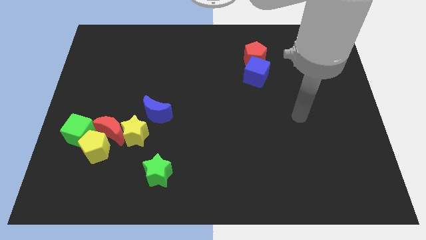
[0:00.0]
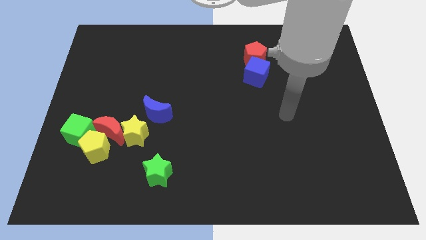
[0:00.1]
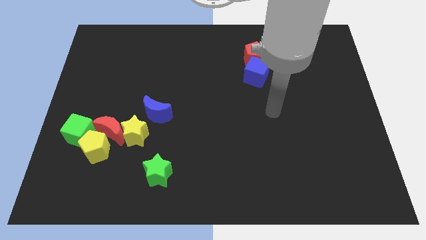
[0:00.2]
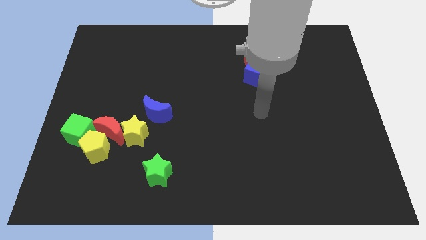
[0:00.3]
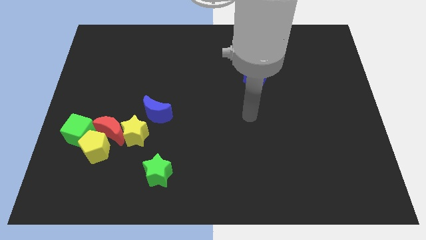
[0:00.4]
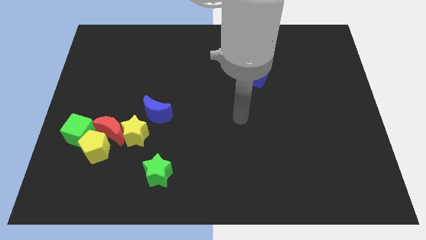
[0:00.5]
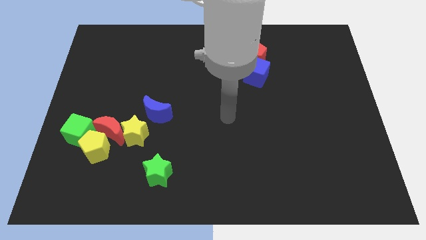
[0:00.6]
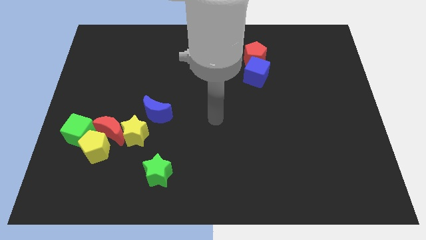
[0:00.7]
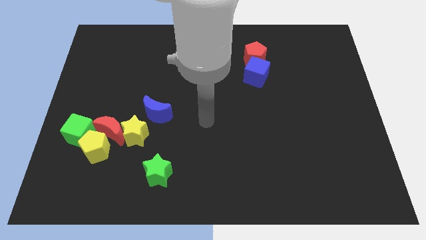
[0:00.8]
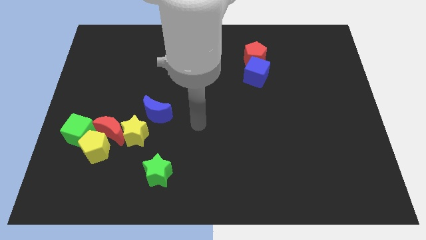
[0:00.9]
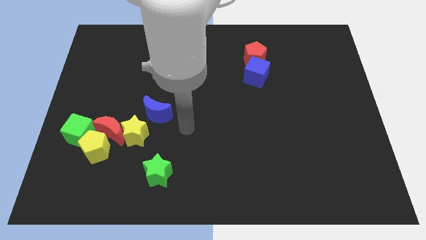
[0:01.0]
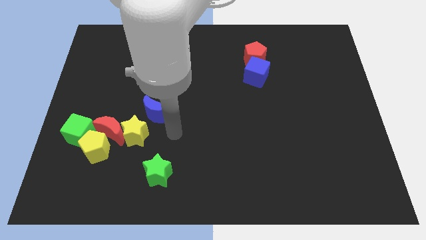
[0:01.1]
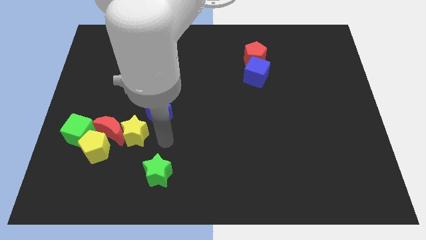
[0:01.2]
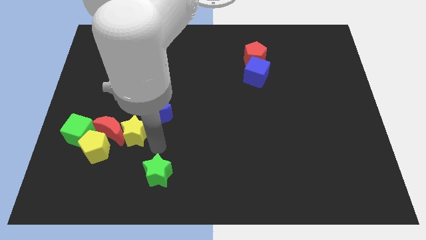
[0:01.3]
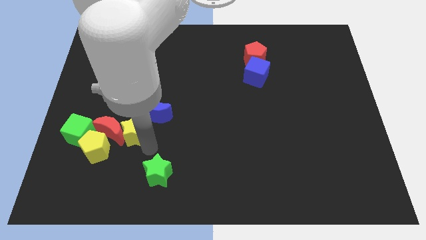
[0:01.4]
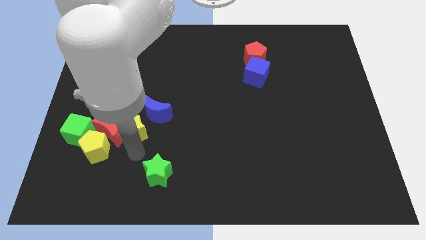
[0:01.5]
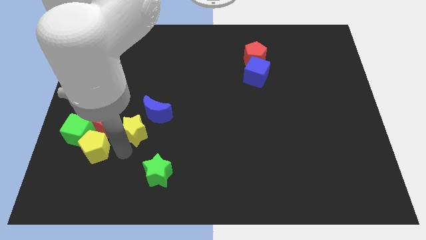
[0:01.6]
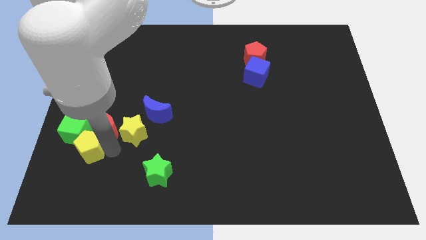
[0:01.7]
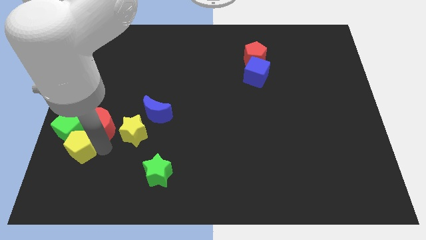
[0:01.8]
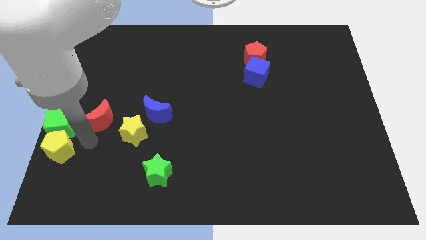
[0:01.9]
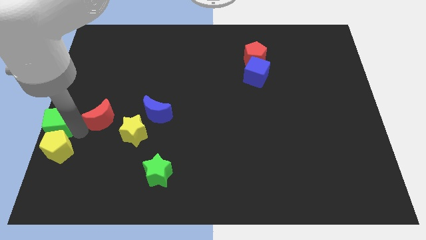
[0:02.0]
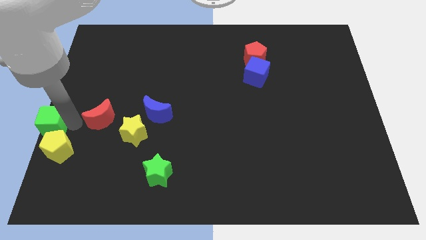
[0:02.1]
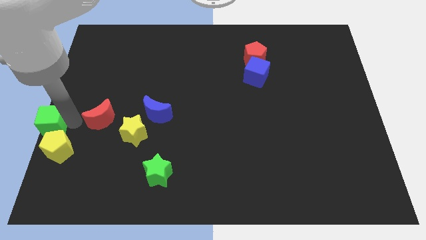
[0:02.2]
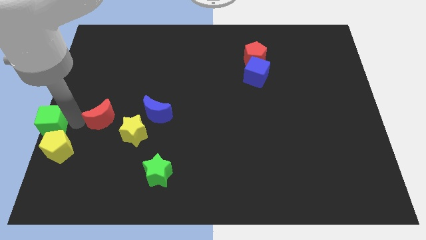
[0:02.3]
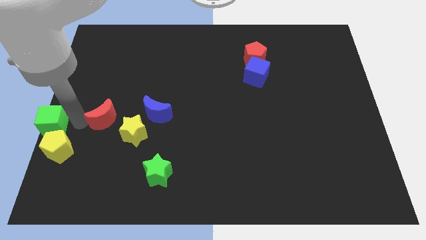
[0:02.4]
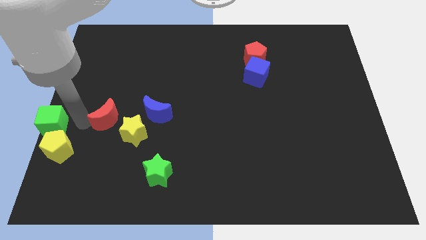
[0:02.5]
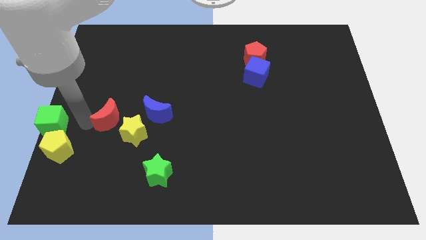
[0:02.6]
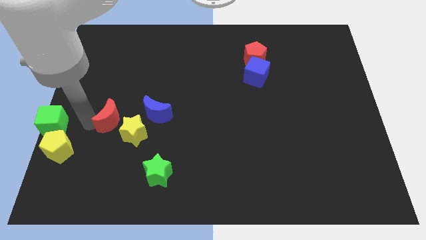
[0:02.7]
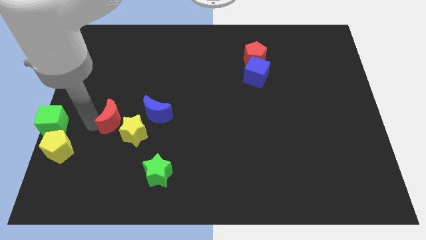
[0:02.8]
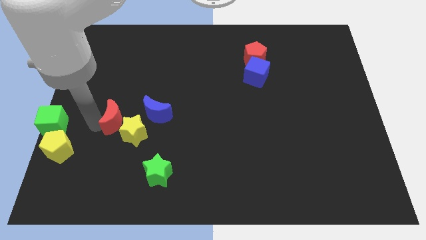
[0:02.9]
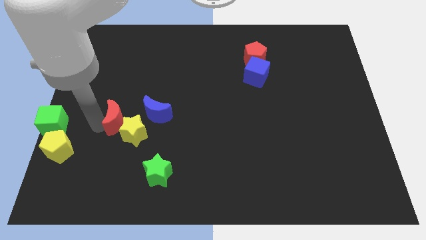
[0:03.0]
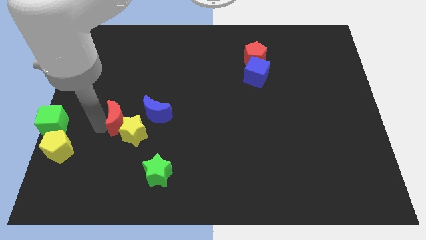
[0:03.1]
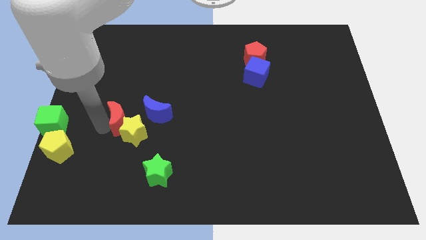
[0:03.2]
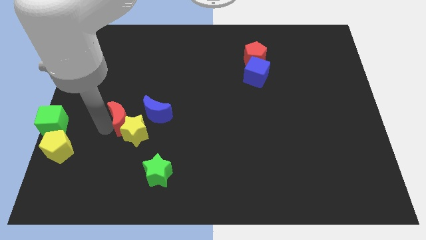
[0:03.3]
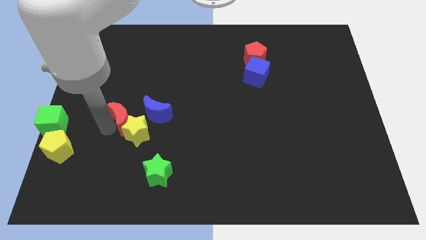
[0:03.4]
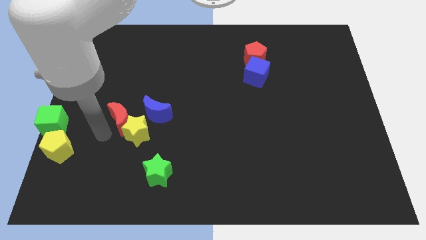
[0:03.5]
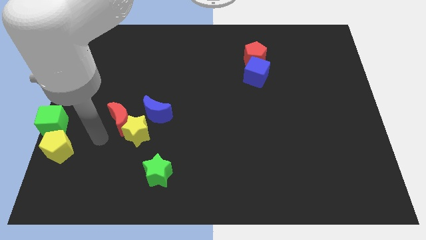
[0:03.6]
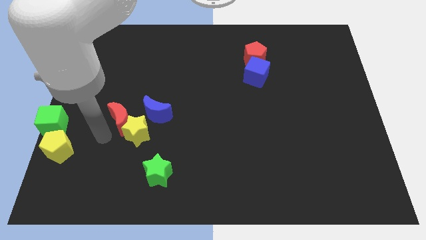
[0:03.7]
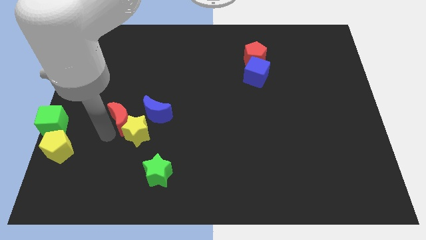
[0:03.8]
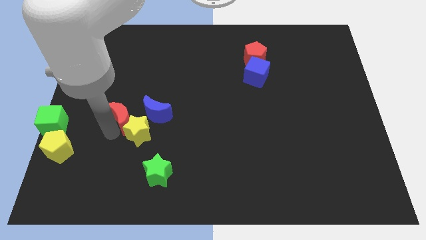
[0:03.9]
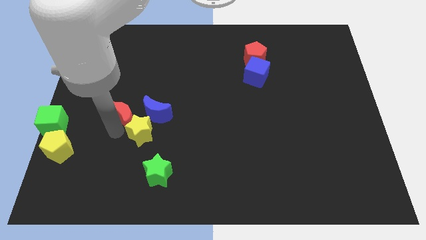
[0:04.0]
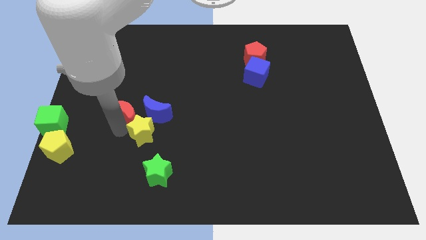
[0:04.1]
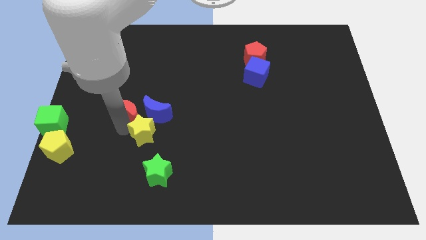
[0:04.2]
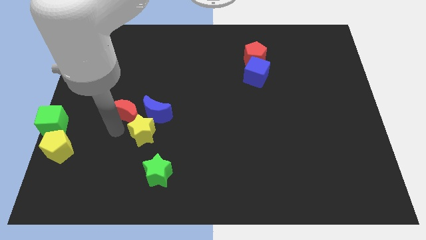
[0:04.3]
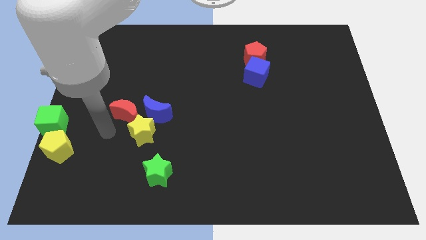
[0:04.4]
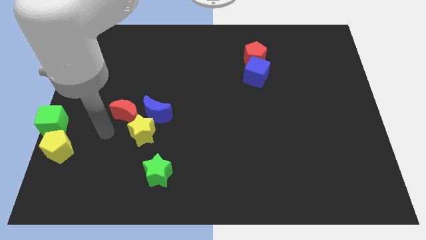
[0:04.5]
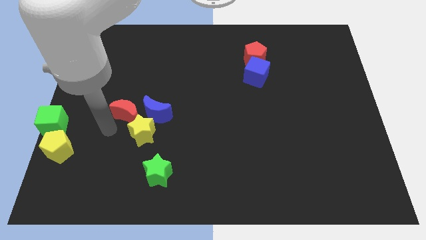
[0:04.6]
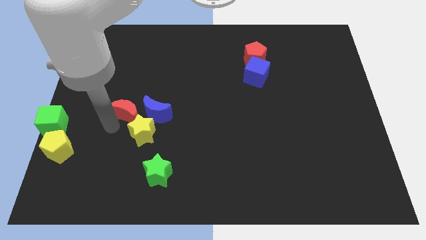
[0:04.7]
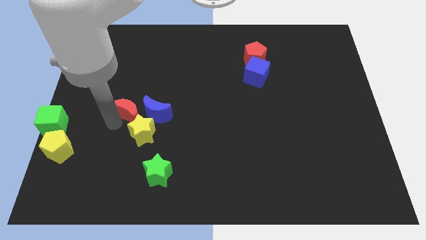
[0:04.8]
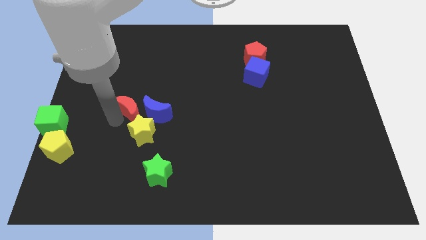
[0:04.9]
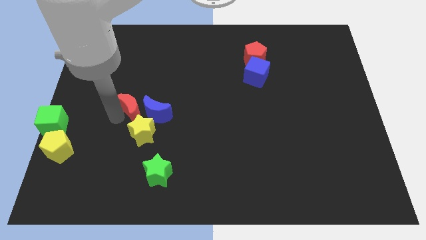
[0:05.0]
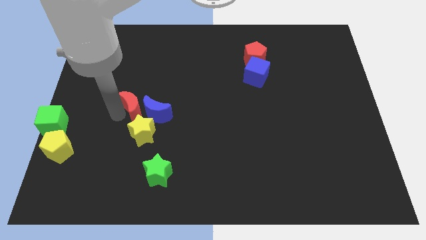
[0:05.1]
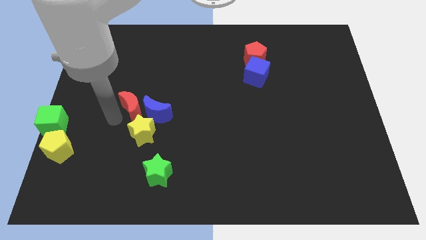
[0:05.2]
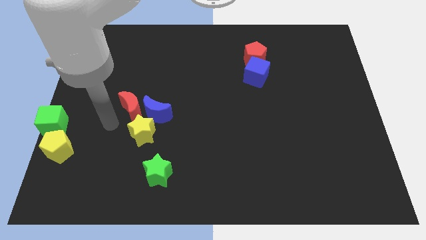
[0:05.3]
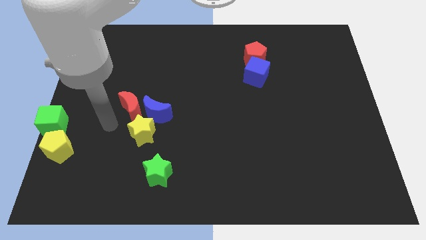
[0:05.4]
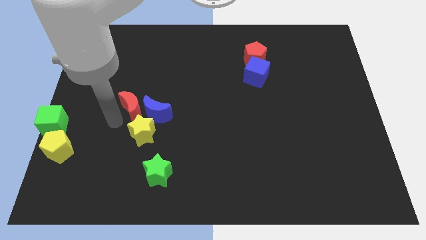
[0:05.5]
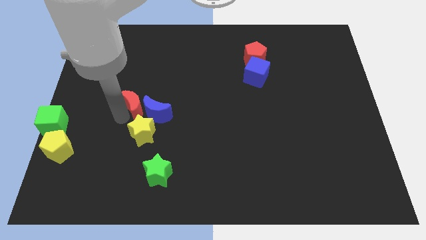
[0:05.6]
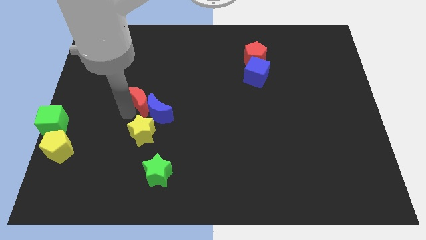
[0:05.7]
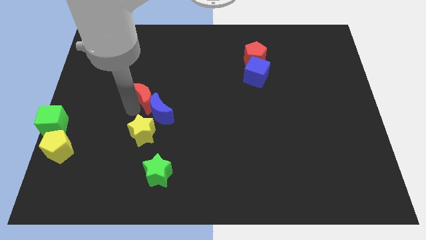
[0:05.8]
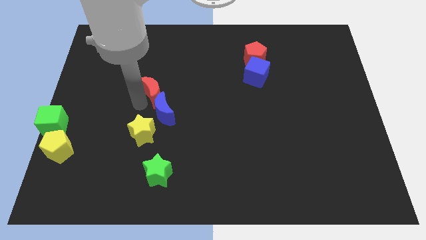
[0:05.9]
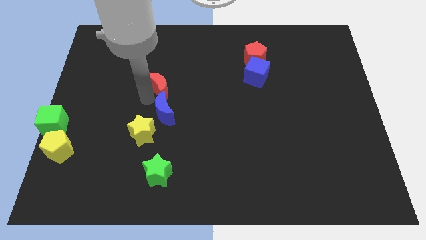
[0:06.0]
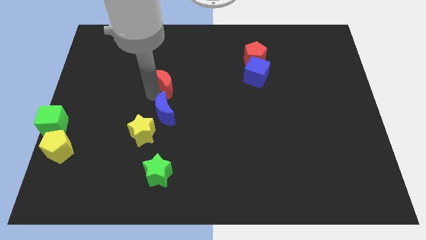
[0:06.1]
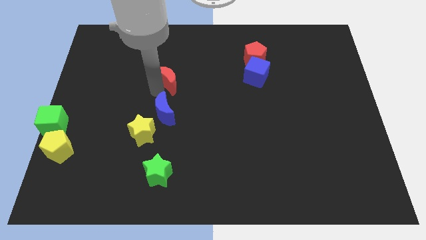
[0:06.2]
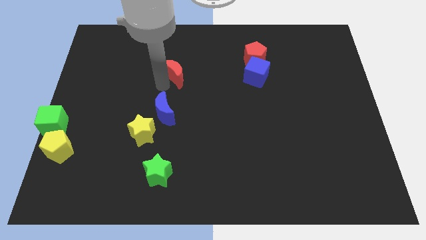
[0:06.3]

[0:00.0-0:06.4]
slide the red moon upwards and then to the right

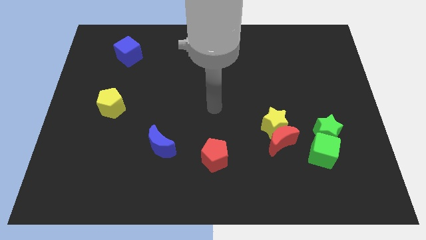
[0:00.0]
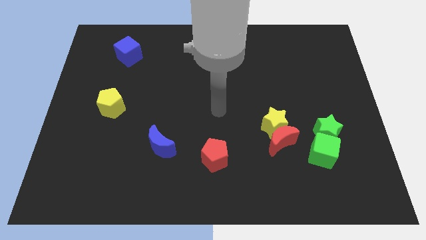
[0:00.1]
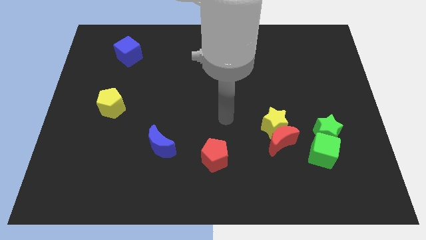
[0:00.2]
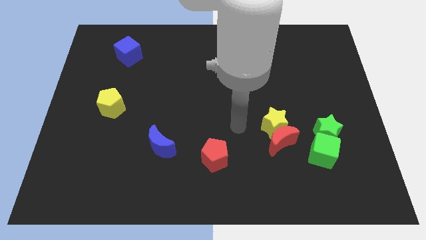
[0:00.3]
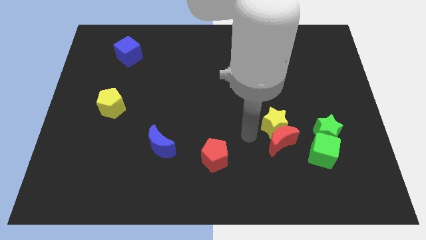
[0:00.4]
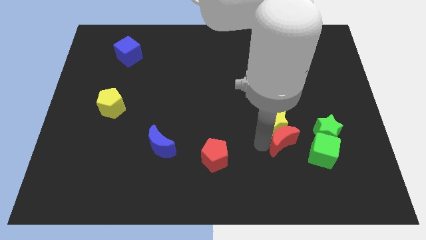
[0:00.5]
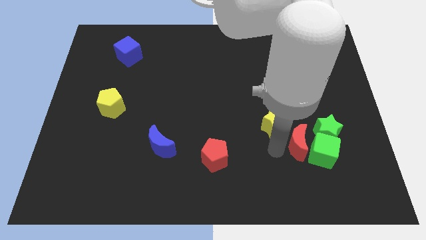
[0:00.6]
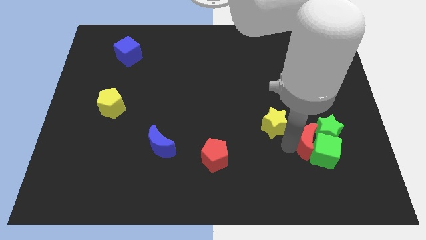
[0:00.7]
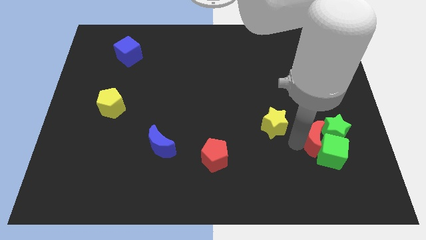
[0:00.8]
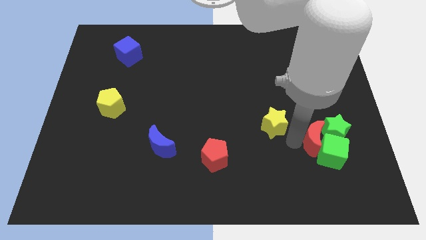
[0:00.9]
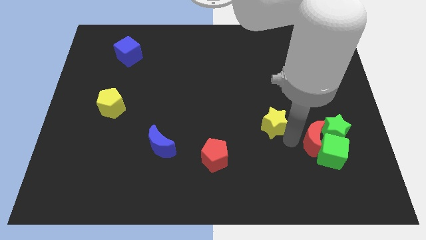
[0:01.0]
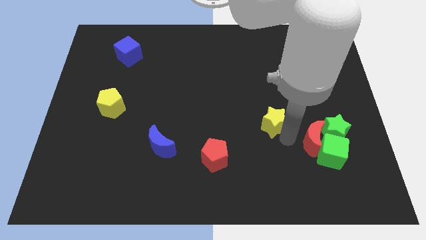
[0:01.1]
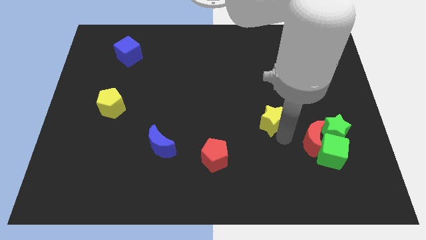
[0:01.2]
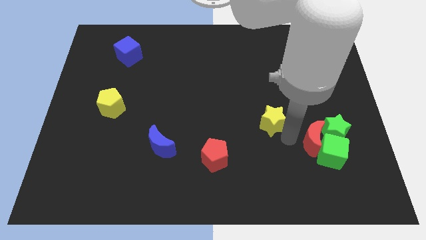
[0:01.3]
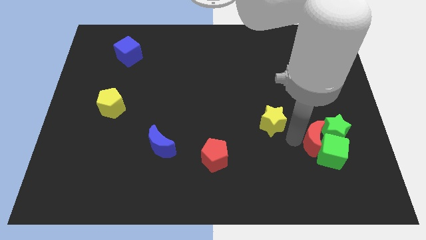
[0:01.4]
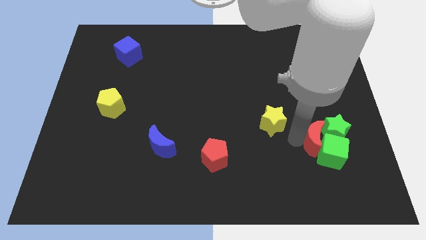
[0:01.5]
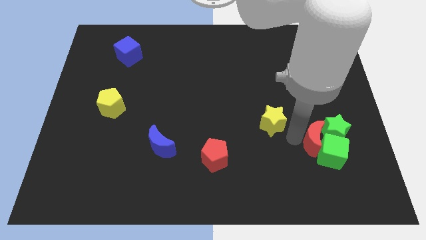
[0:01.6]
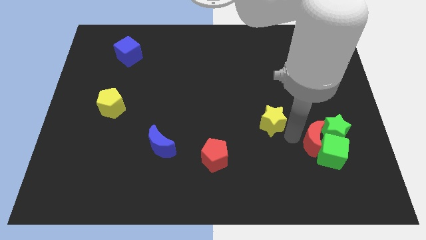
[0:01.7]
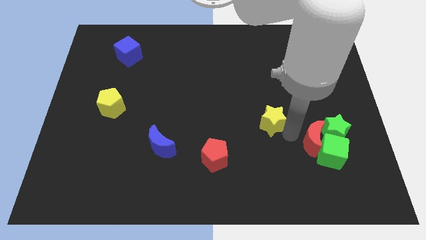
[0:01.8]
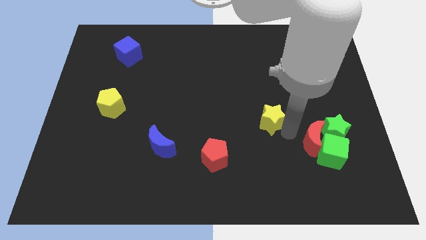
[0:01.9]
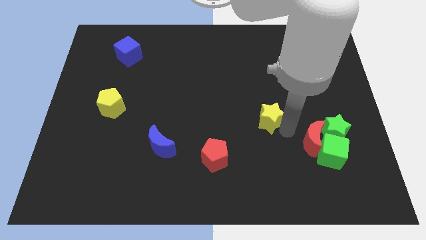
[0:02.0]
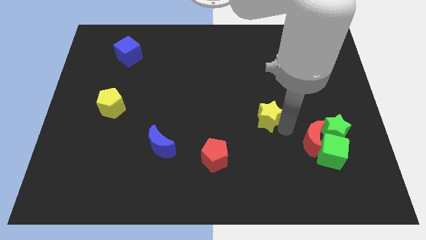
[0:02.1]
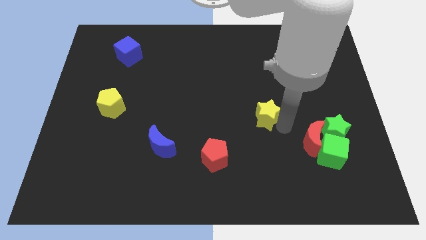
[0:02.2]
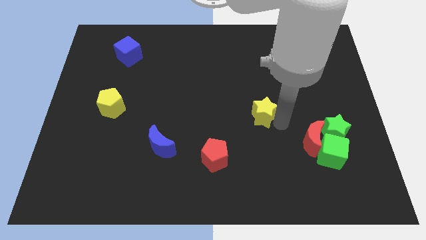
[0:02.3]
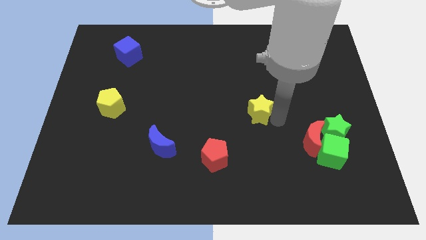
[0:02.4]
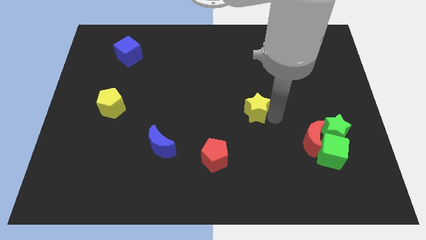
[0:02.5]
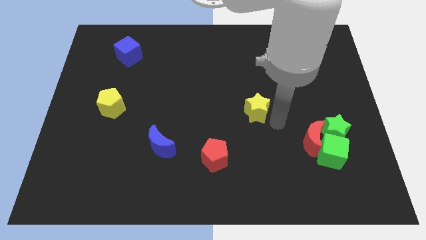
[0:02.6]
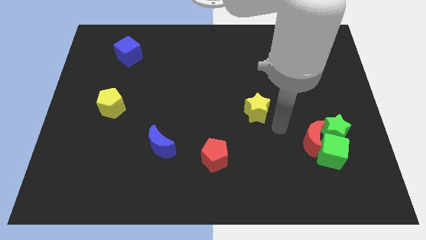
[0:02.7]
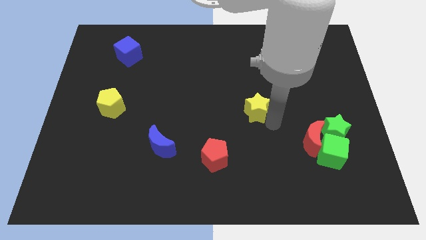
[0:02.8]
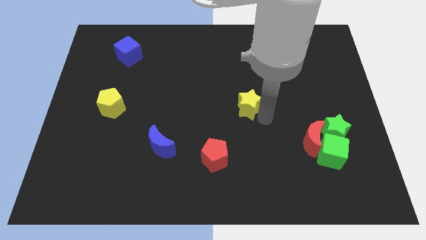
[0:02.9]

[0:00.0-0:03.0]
slightly move the yellow star upwards and to the left
